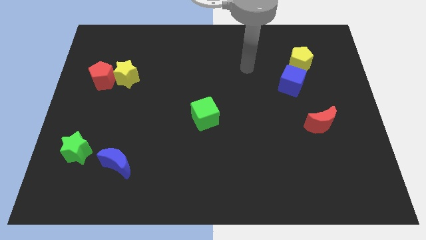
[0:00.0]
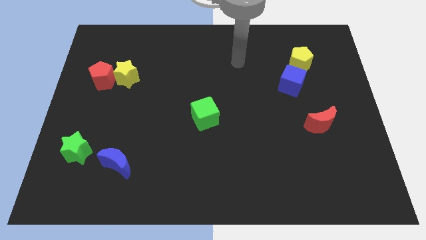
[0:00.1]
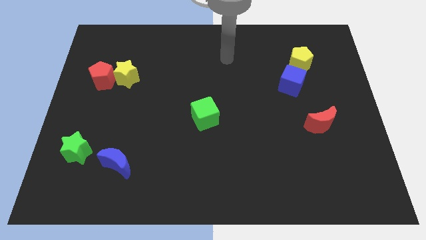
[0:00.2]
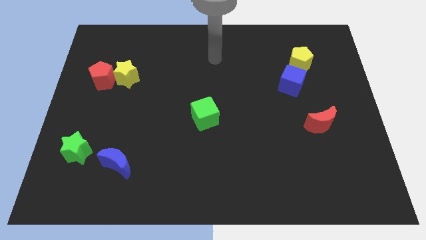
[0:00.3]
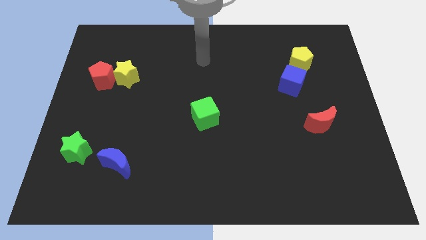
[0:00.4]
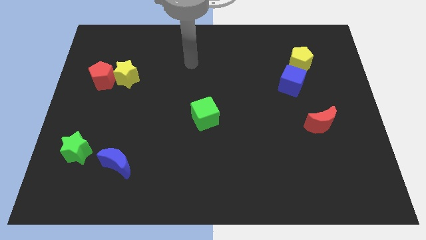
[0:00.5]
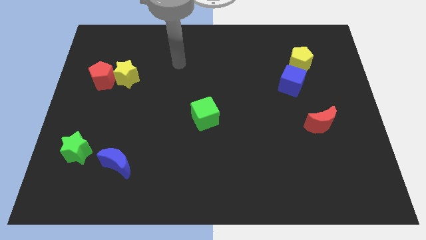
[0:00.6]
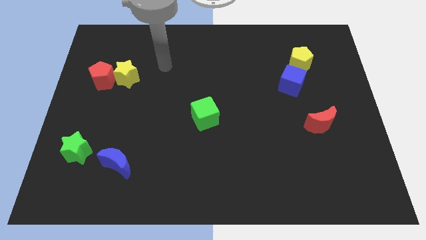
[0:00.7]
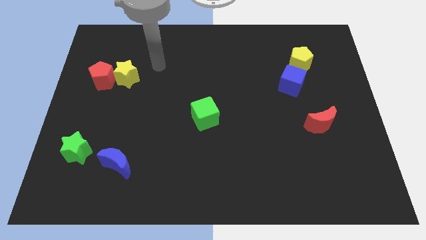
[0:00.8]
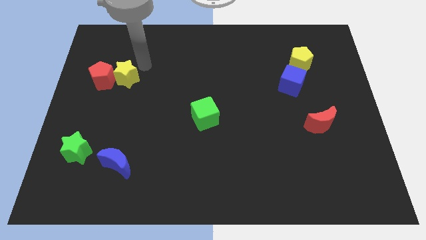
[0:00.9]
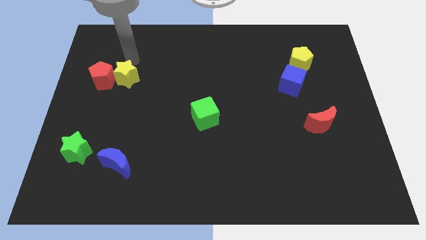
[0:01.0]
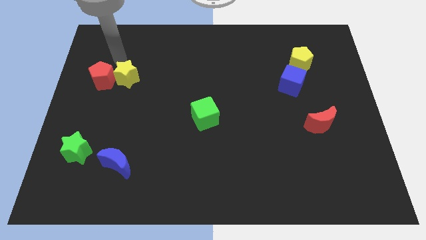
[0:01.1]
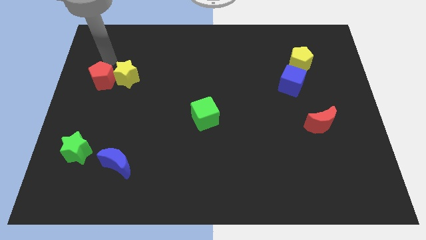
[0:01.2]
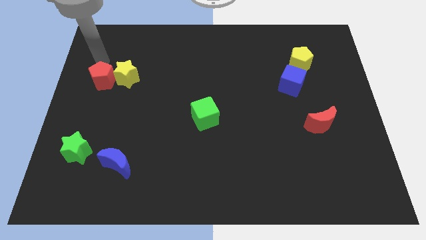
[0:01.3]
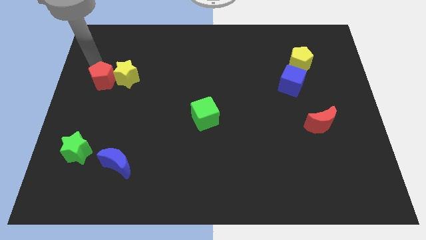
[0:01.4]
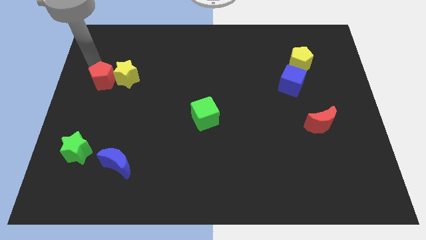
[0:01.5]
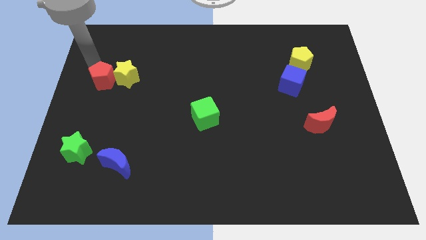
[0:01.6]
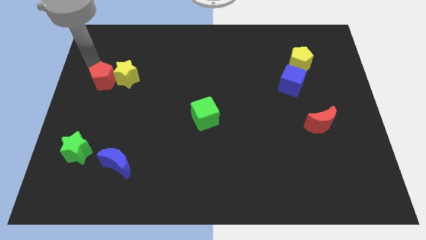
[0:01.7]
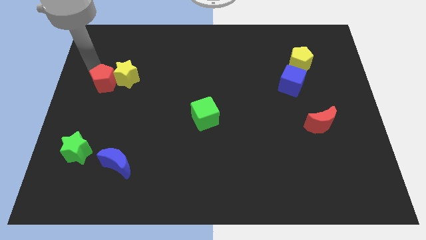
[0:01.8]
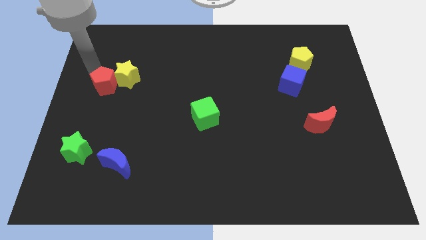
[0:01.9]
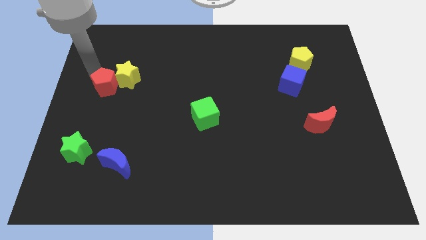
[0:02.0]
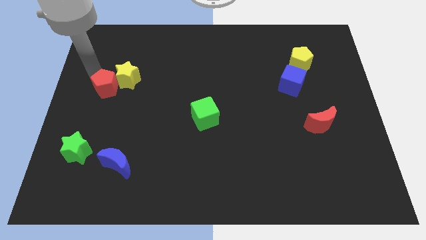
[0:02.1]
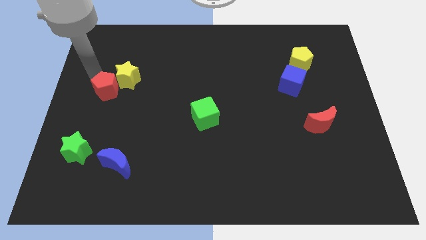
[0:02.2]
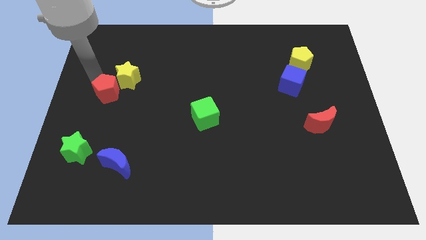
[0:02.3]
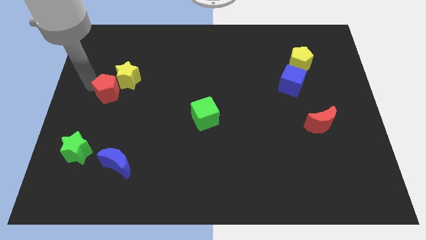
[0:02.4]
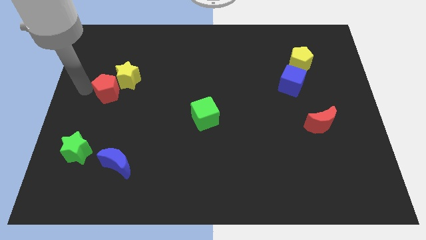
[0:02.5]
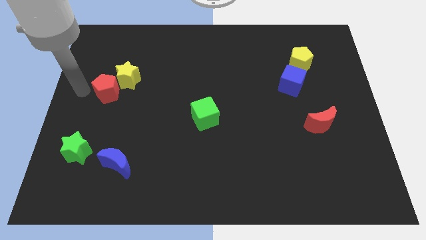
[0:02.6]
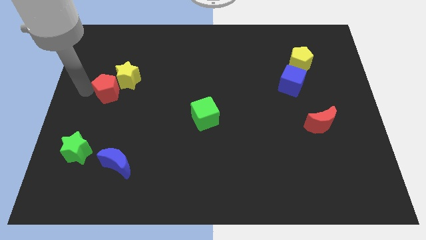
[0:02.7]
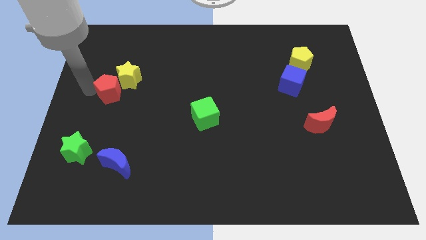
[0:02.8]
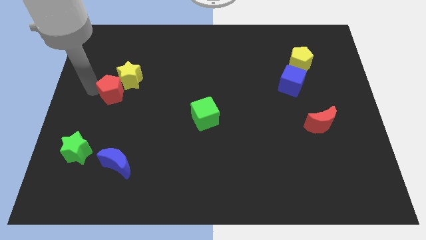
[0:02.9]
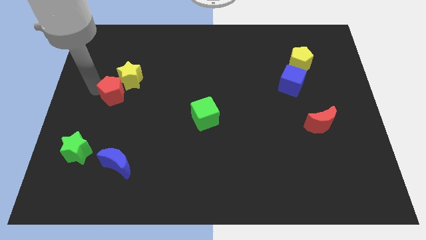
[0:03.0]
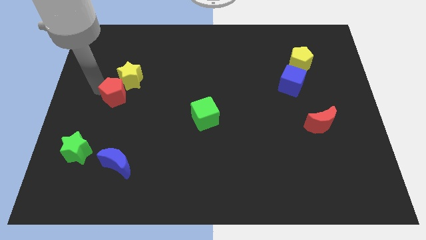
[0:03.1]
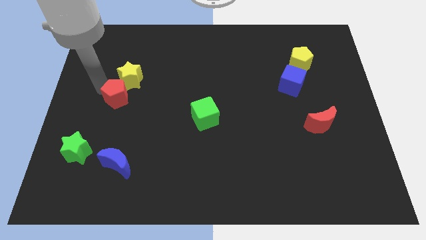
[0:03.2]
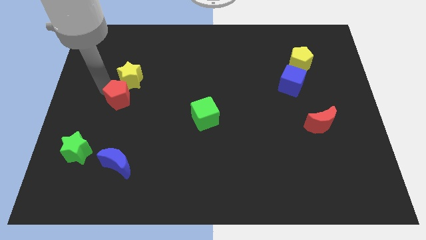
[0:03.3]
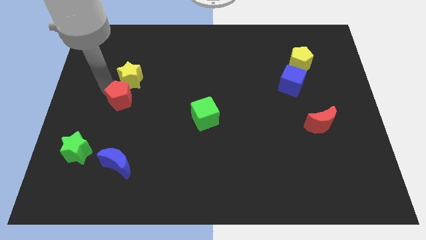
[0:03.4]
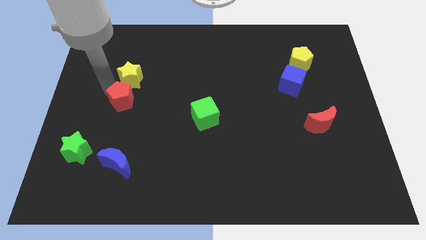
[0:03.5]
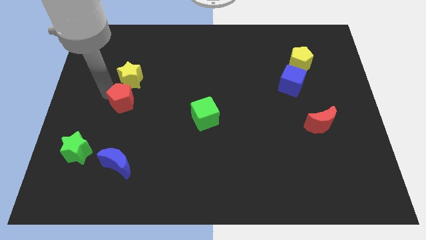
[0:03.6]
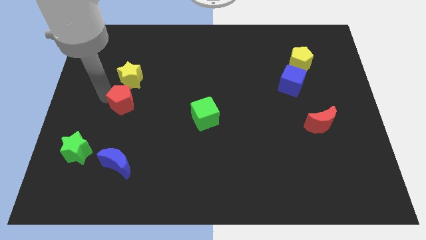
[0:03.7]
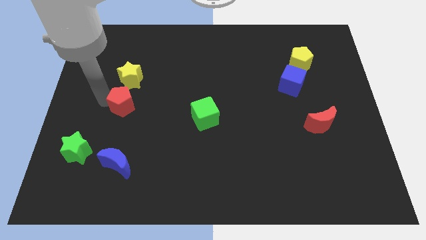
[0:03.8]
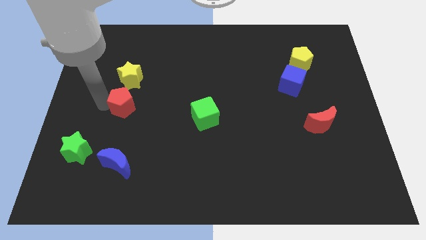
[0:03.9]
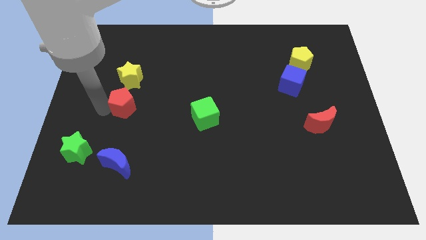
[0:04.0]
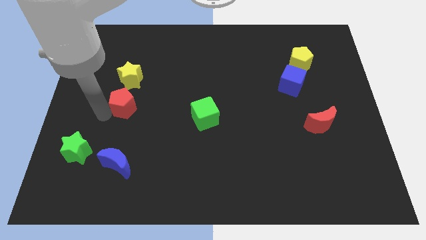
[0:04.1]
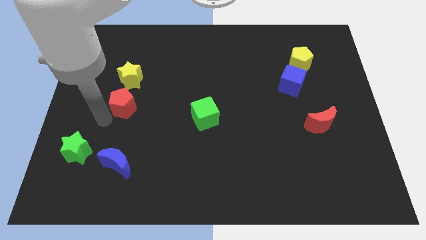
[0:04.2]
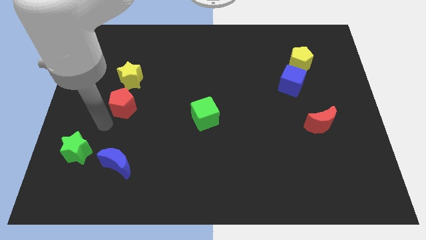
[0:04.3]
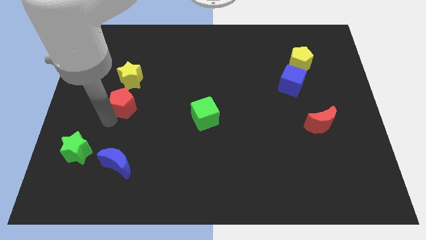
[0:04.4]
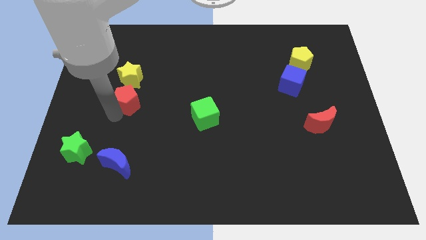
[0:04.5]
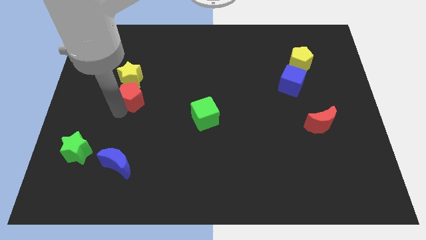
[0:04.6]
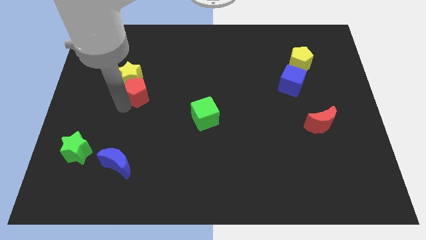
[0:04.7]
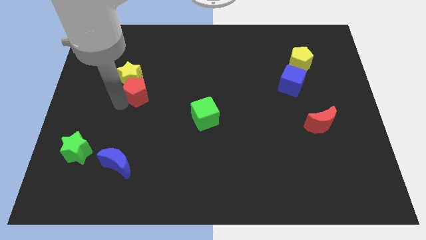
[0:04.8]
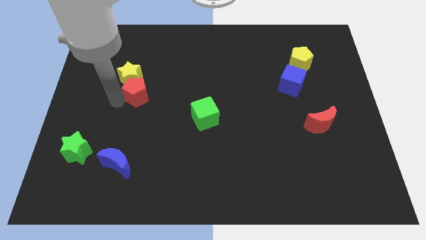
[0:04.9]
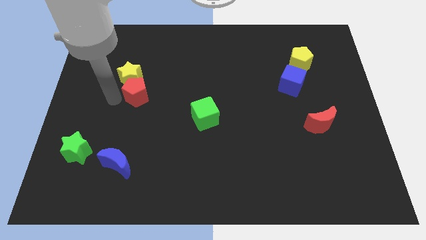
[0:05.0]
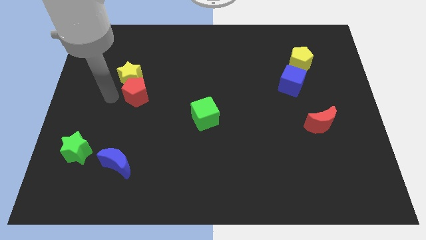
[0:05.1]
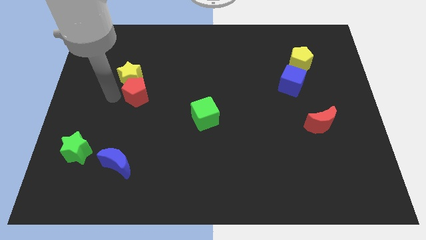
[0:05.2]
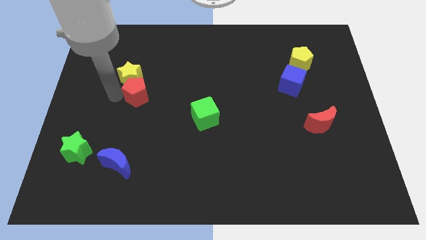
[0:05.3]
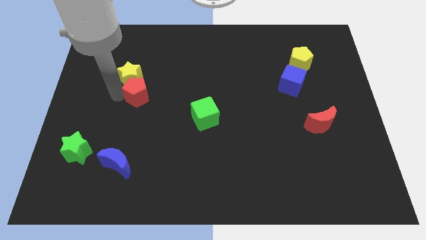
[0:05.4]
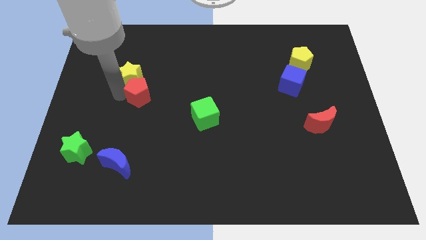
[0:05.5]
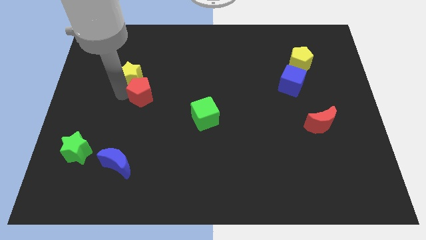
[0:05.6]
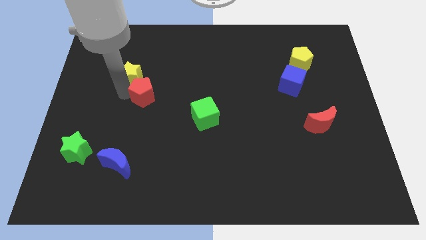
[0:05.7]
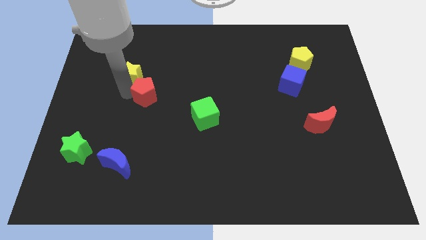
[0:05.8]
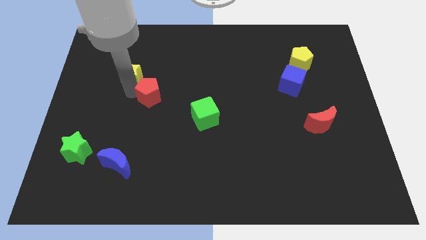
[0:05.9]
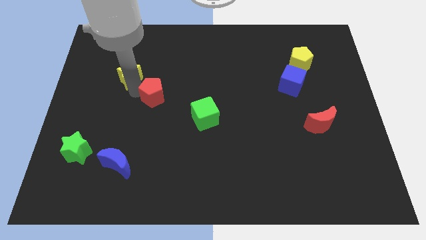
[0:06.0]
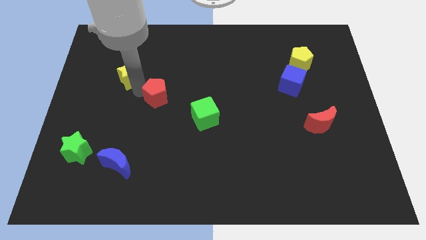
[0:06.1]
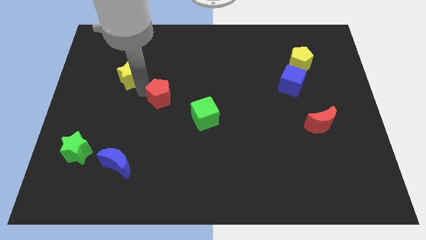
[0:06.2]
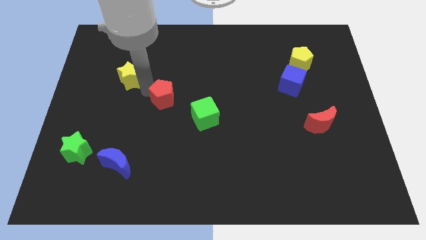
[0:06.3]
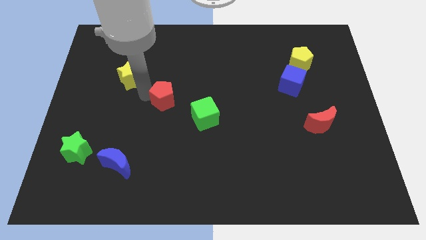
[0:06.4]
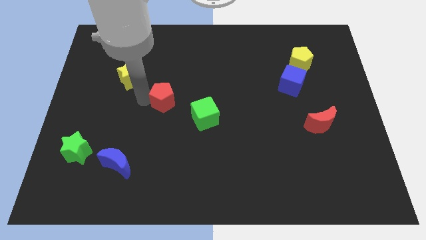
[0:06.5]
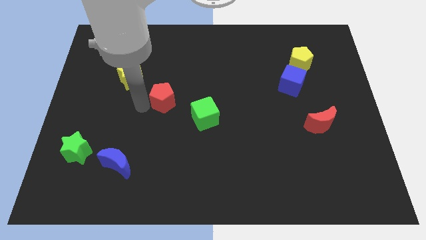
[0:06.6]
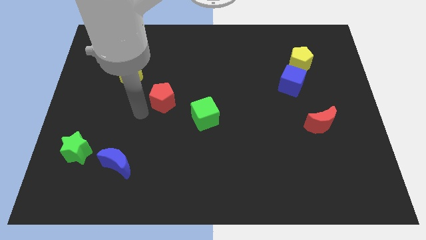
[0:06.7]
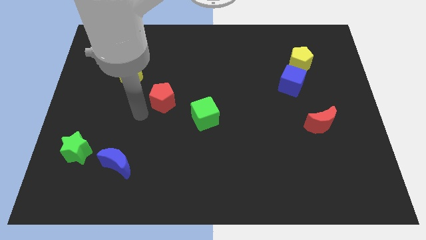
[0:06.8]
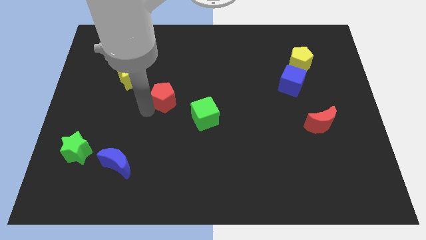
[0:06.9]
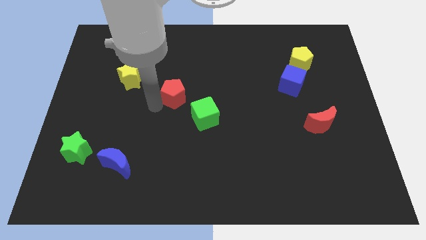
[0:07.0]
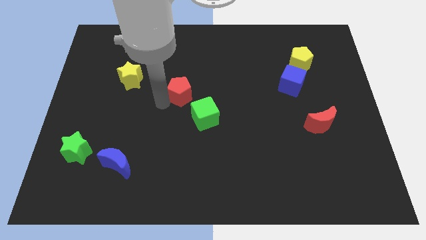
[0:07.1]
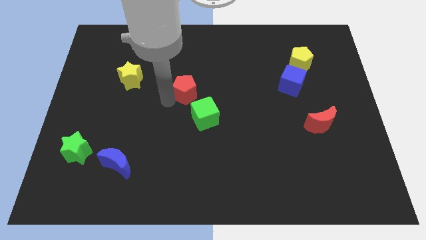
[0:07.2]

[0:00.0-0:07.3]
push the red pentagon to the right

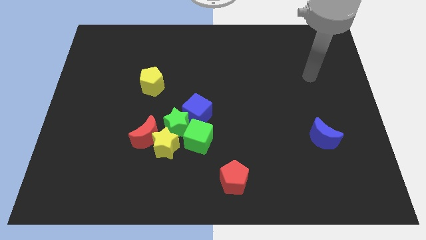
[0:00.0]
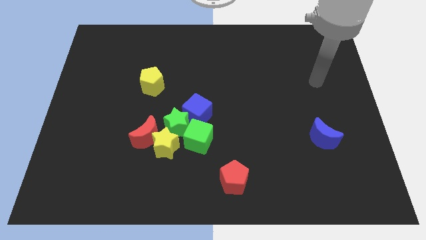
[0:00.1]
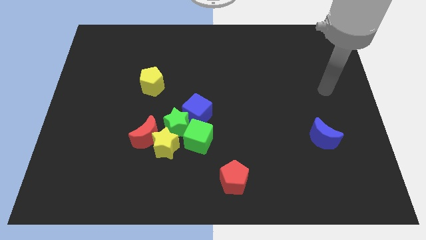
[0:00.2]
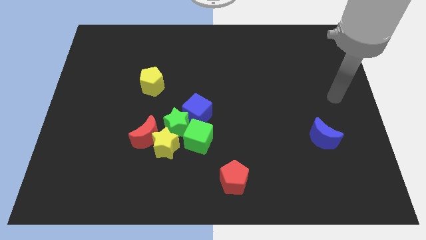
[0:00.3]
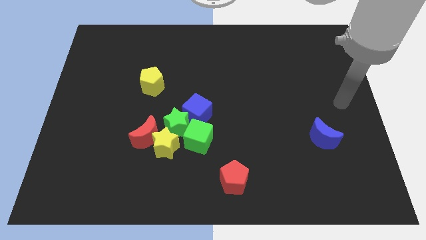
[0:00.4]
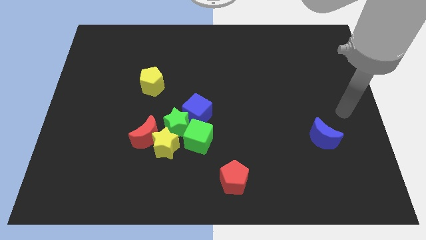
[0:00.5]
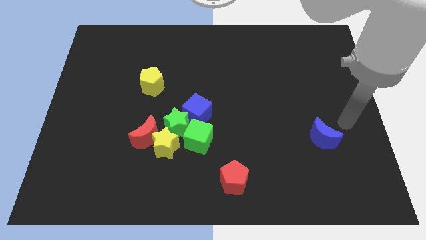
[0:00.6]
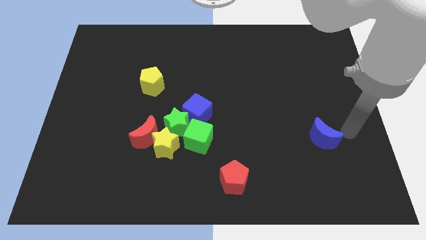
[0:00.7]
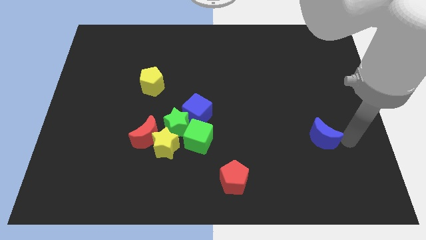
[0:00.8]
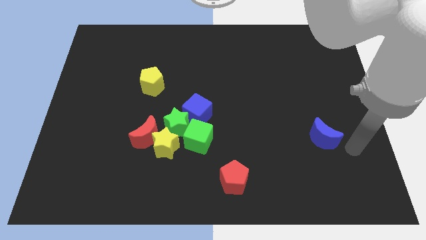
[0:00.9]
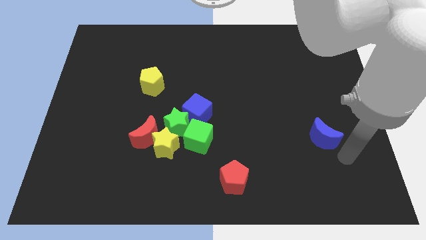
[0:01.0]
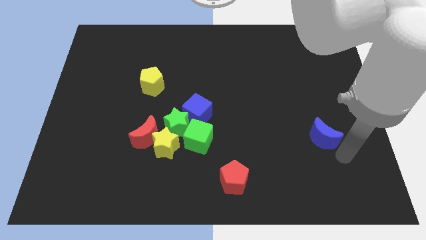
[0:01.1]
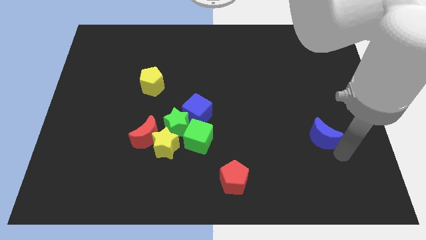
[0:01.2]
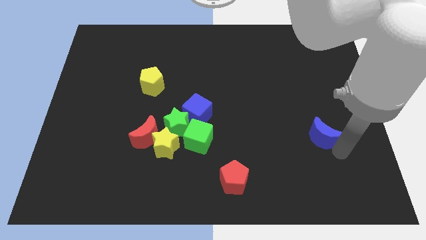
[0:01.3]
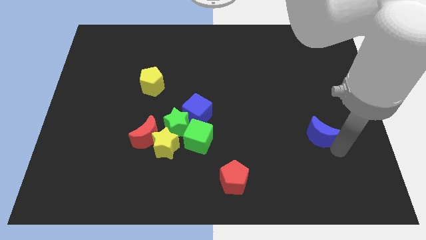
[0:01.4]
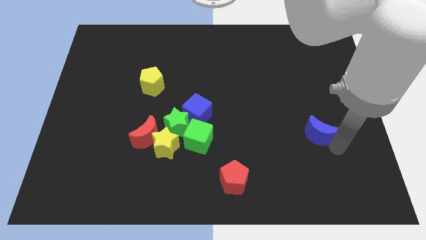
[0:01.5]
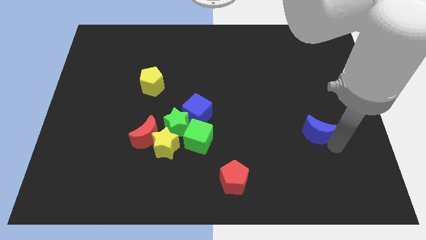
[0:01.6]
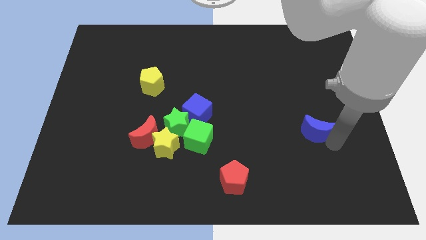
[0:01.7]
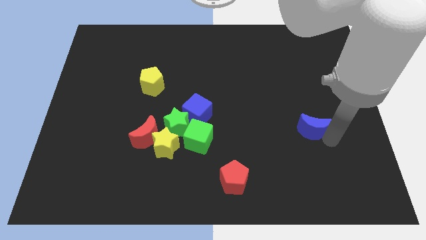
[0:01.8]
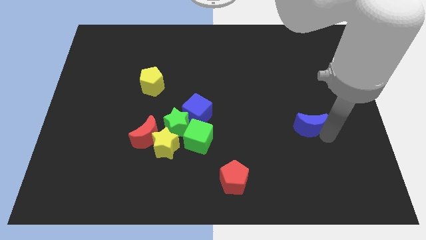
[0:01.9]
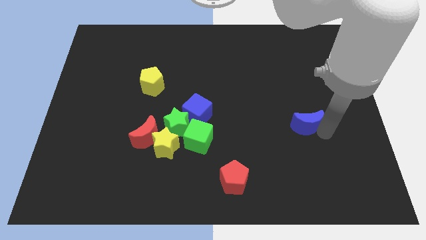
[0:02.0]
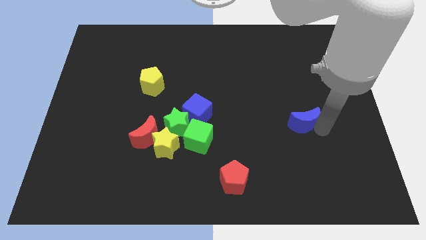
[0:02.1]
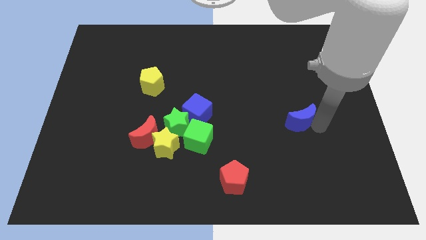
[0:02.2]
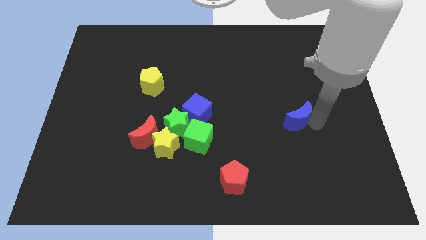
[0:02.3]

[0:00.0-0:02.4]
move the blue moon somewhat upwards and then left
